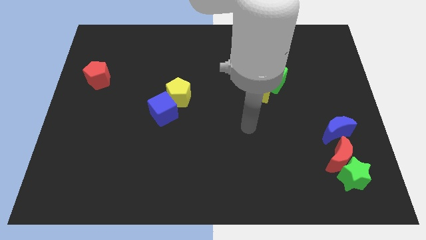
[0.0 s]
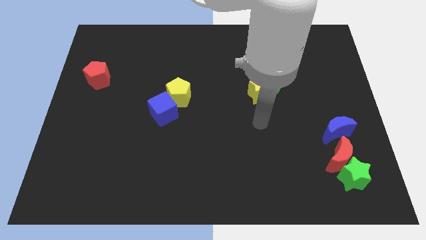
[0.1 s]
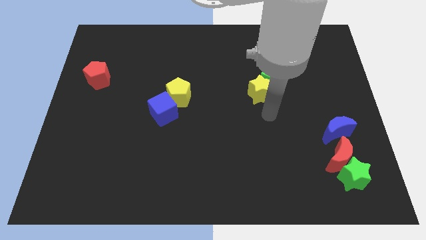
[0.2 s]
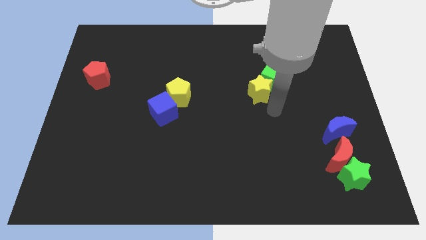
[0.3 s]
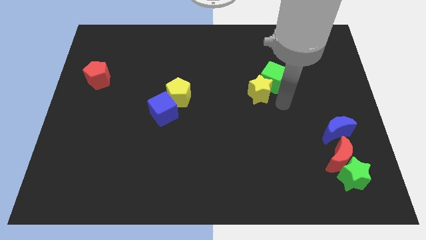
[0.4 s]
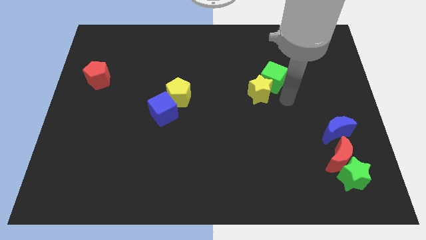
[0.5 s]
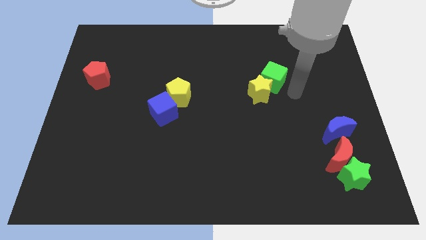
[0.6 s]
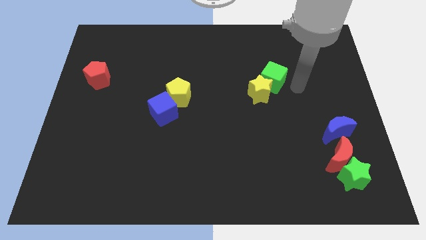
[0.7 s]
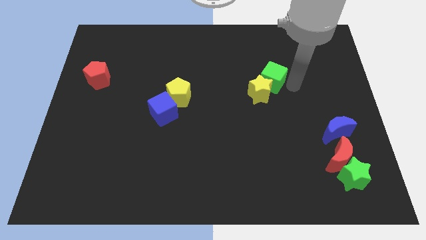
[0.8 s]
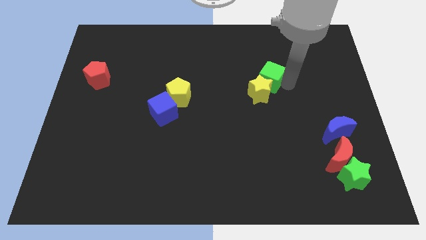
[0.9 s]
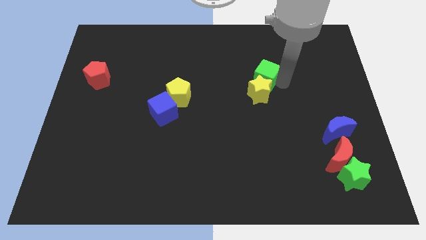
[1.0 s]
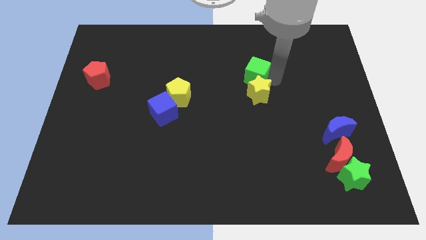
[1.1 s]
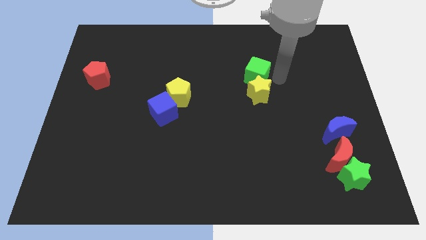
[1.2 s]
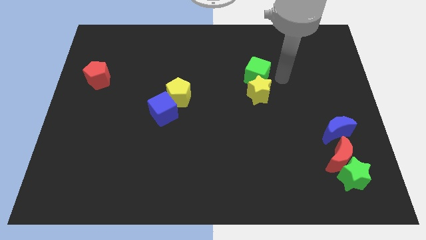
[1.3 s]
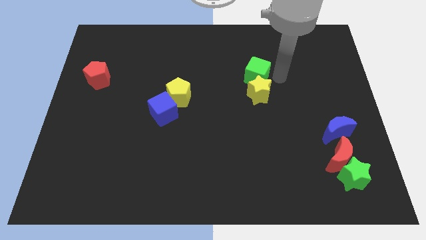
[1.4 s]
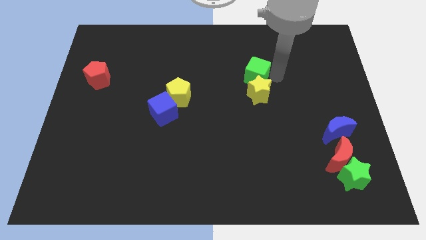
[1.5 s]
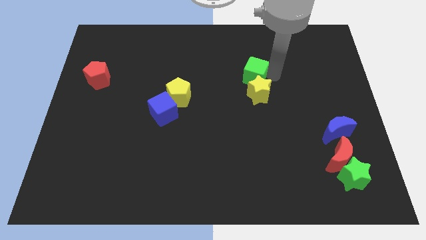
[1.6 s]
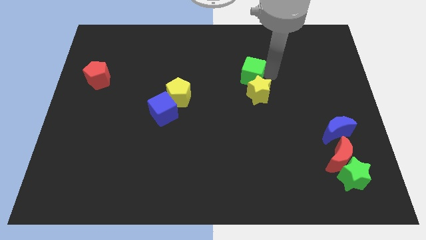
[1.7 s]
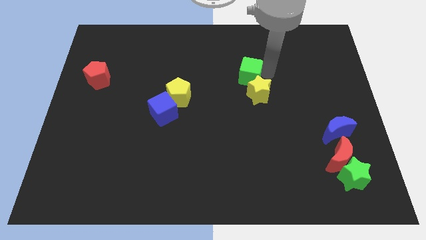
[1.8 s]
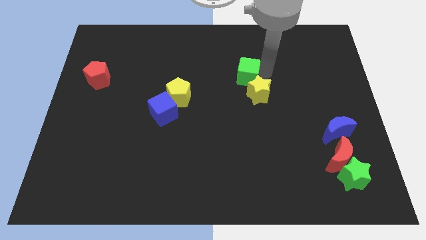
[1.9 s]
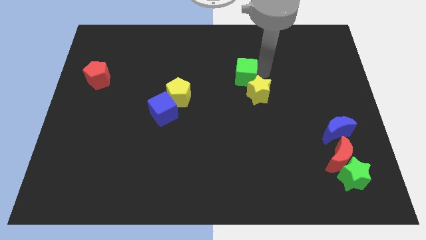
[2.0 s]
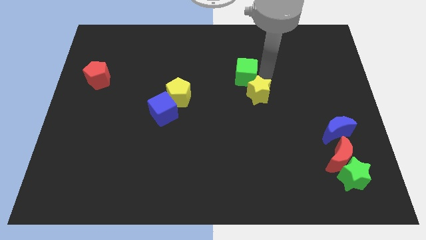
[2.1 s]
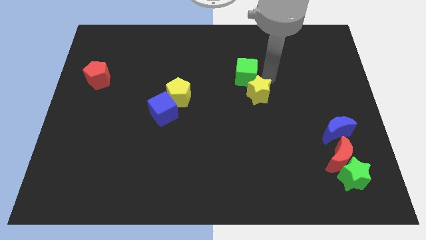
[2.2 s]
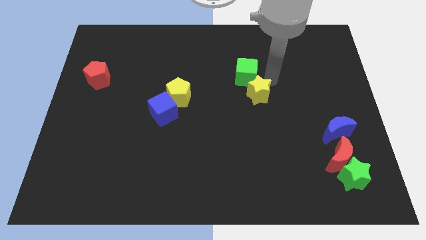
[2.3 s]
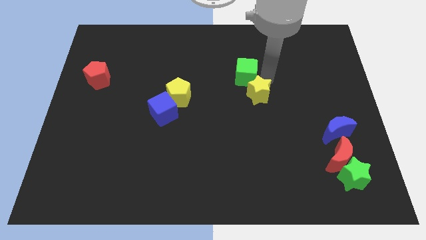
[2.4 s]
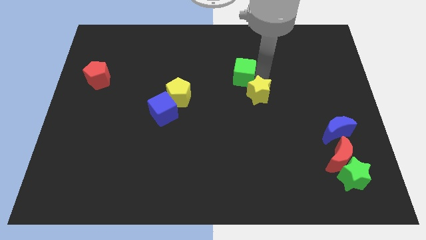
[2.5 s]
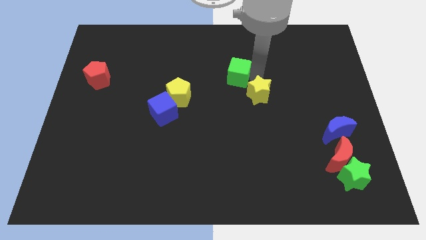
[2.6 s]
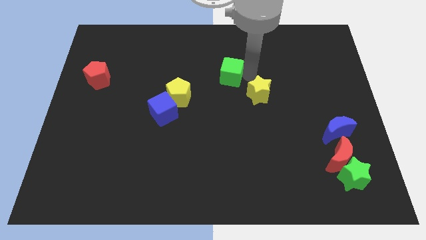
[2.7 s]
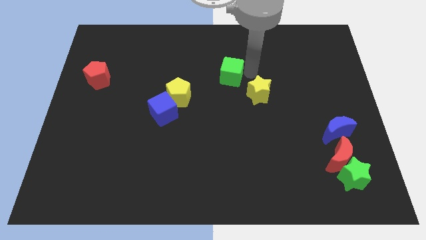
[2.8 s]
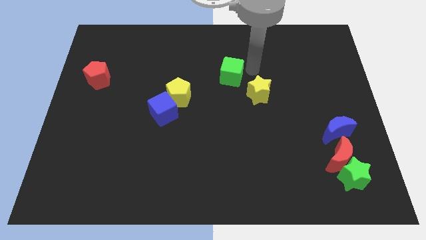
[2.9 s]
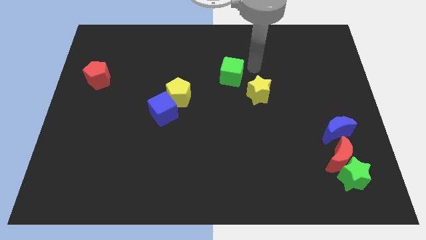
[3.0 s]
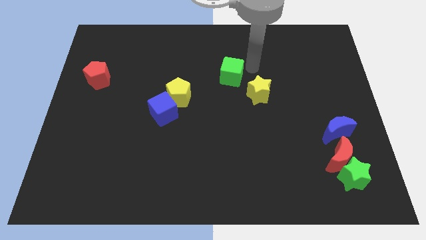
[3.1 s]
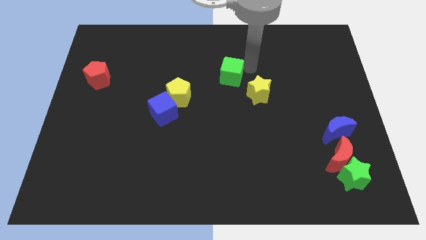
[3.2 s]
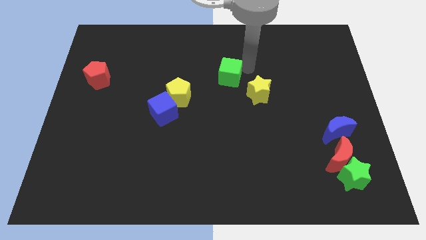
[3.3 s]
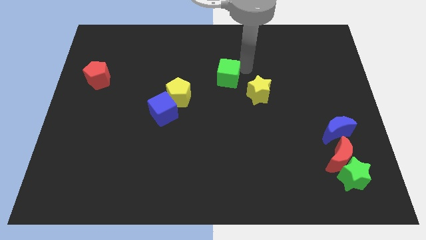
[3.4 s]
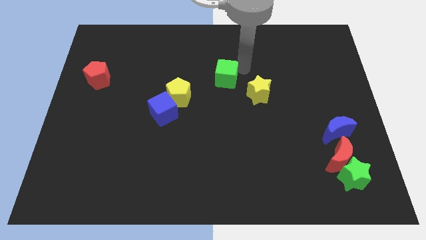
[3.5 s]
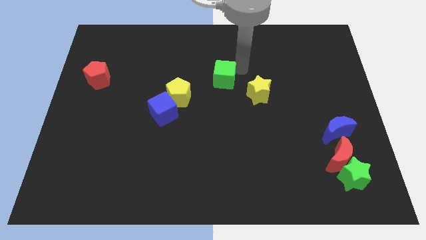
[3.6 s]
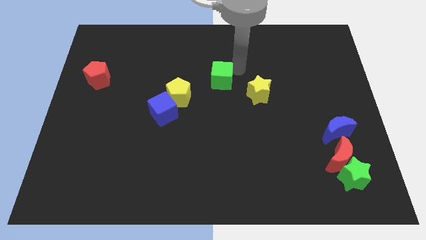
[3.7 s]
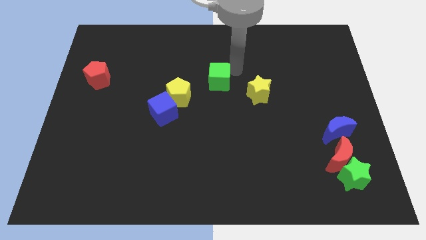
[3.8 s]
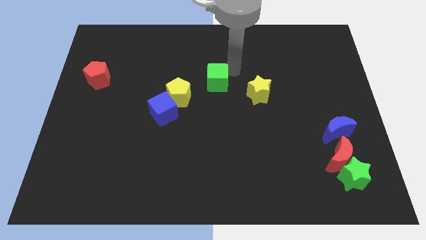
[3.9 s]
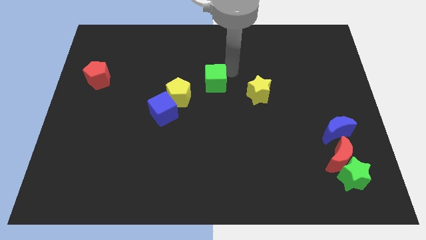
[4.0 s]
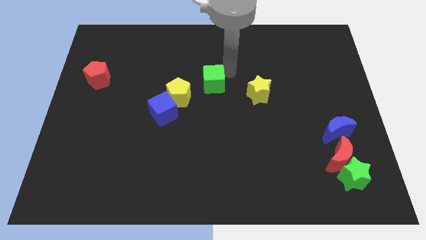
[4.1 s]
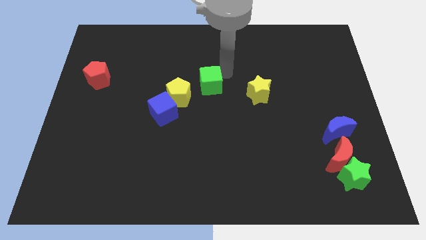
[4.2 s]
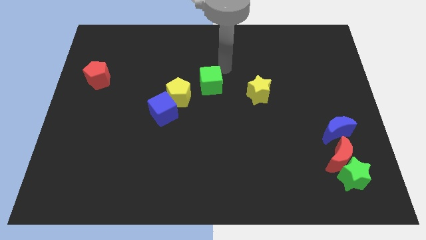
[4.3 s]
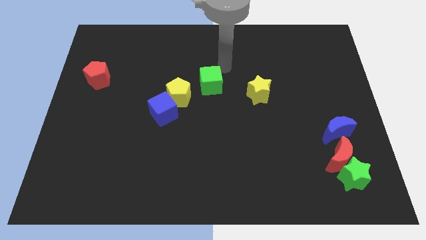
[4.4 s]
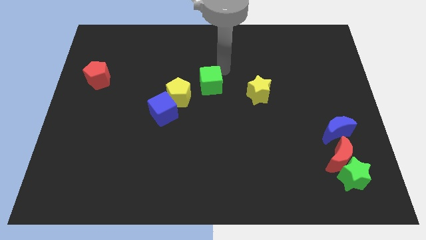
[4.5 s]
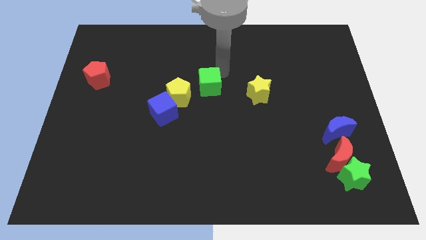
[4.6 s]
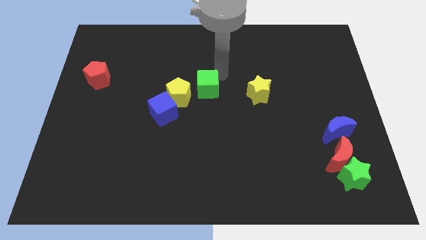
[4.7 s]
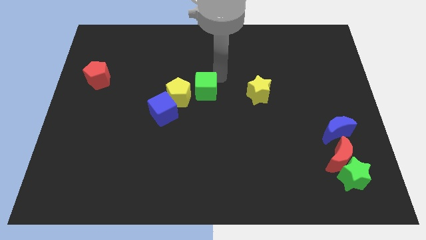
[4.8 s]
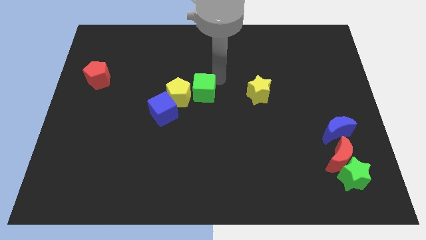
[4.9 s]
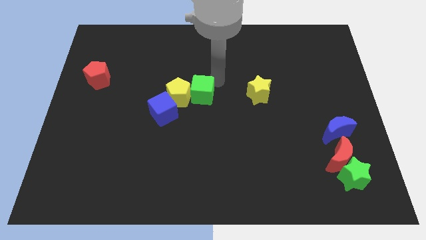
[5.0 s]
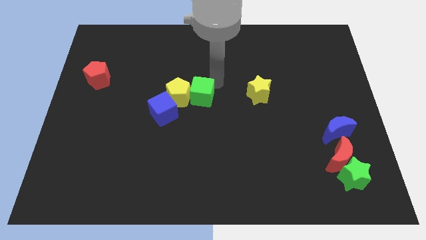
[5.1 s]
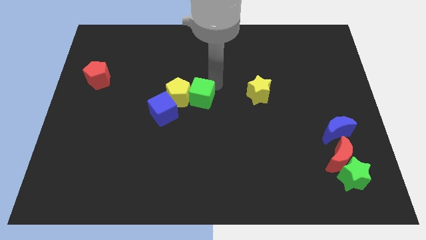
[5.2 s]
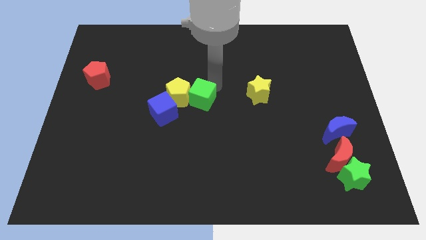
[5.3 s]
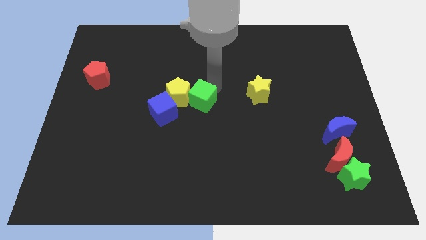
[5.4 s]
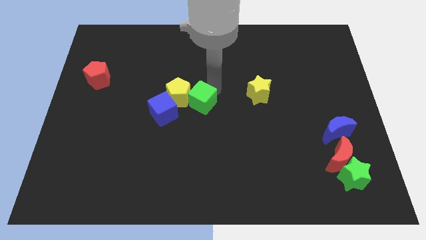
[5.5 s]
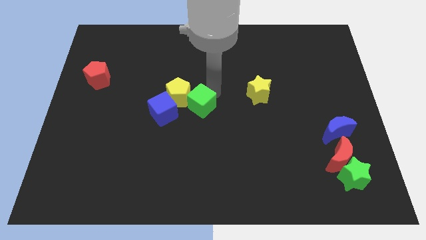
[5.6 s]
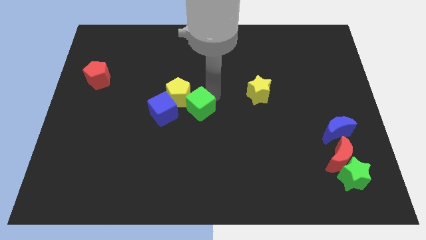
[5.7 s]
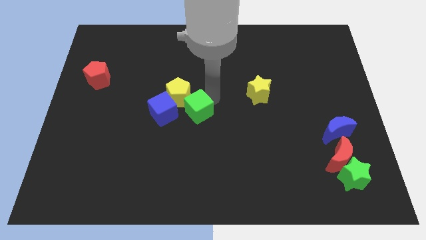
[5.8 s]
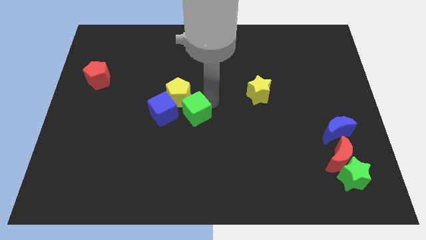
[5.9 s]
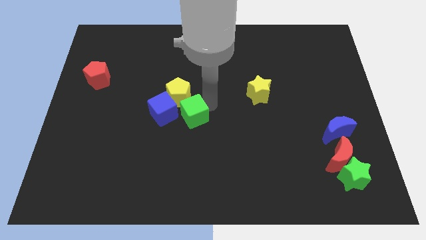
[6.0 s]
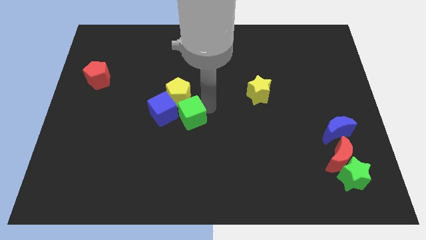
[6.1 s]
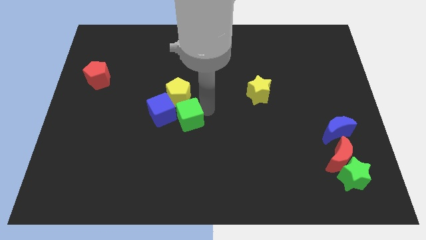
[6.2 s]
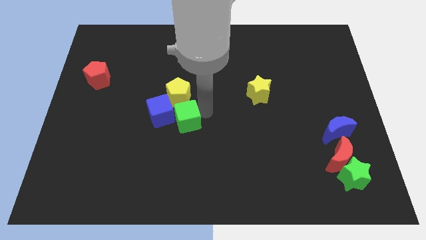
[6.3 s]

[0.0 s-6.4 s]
move the green cube next to the blue cube

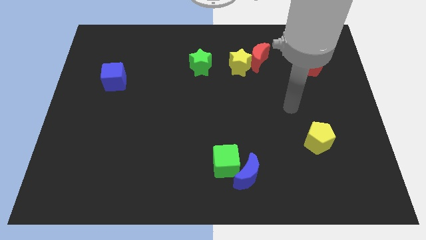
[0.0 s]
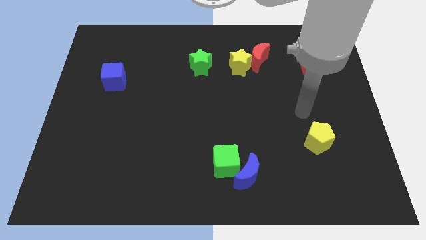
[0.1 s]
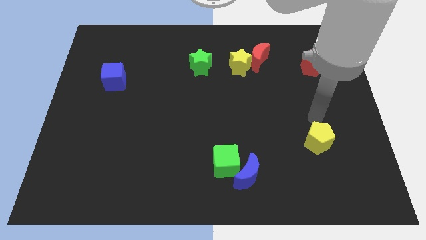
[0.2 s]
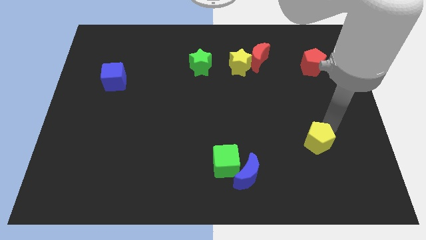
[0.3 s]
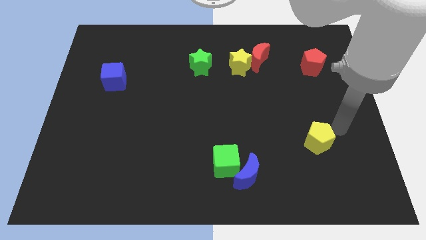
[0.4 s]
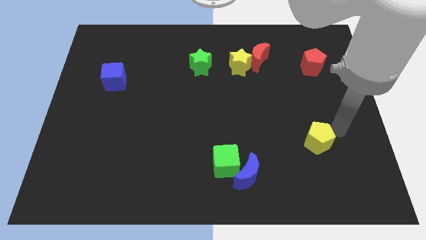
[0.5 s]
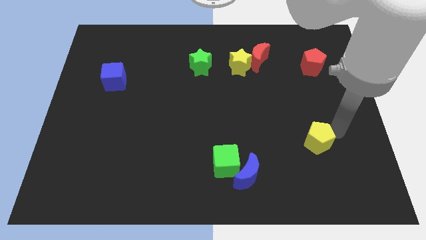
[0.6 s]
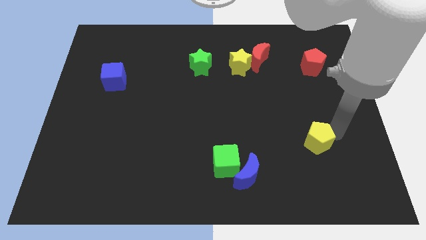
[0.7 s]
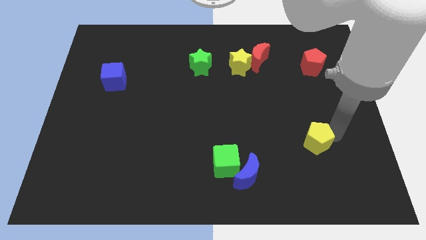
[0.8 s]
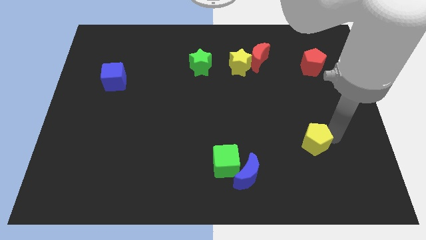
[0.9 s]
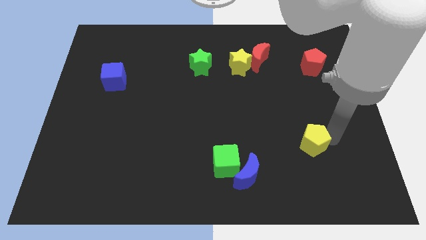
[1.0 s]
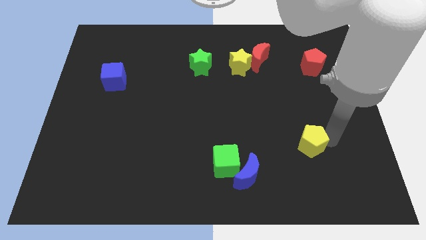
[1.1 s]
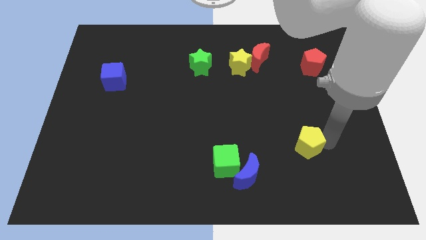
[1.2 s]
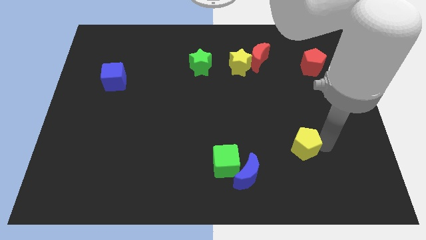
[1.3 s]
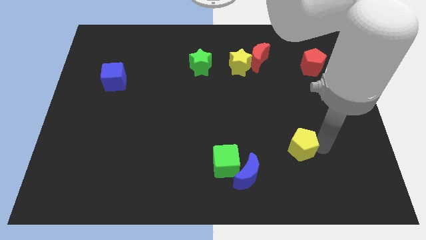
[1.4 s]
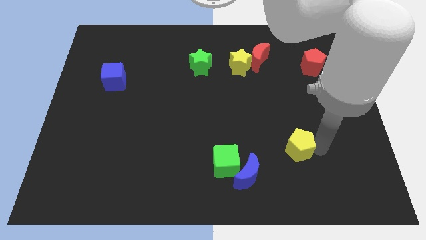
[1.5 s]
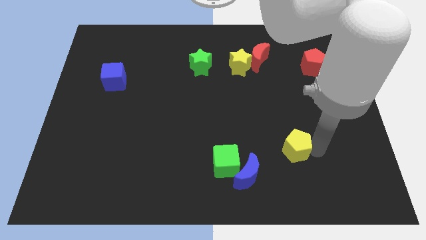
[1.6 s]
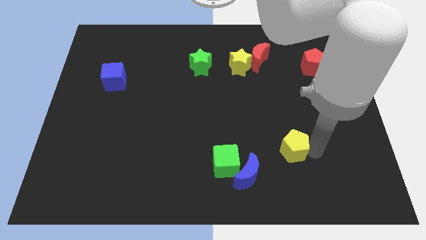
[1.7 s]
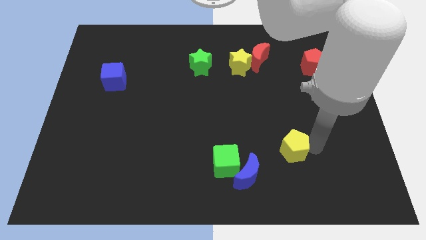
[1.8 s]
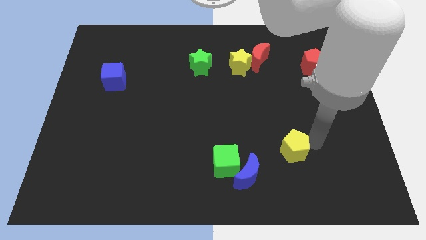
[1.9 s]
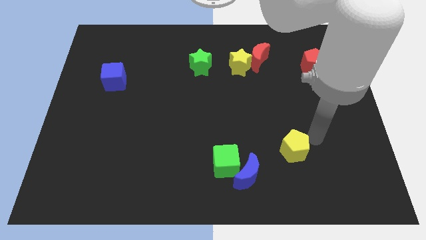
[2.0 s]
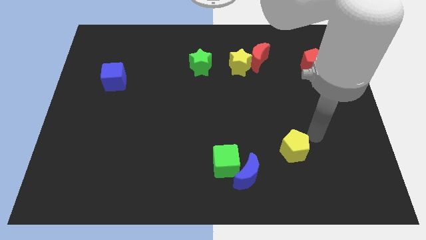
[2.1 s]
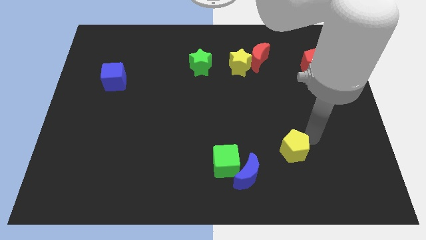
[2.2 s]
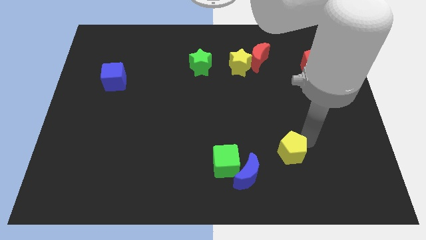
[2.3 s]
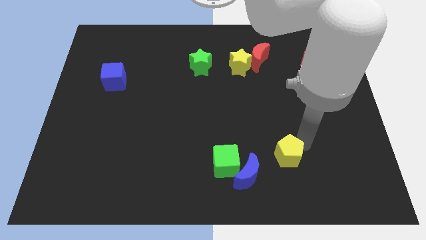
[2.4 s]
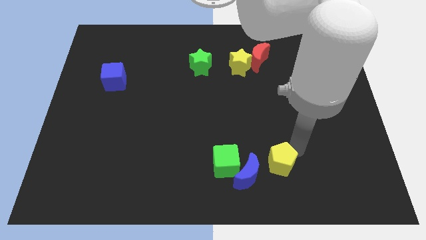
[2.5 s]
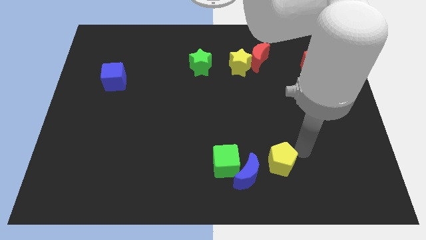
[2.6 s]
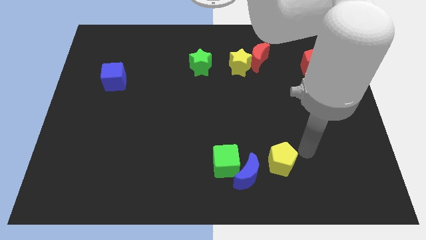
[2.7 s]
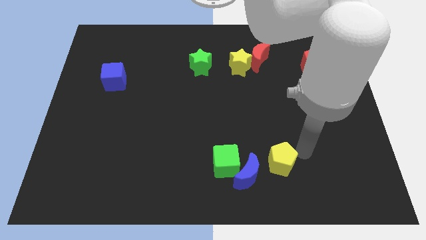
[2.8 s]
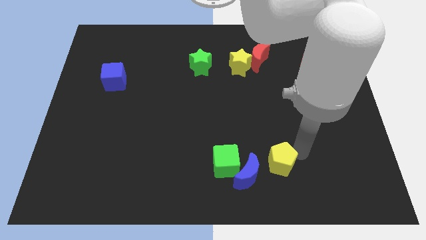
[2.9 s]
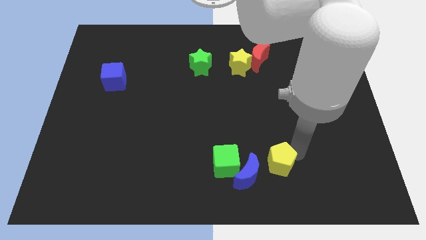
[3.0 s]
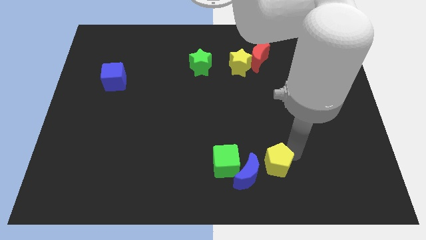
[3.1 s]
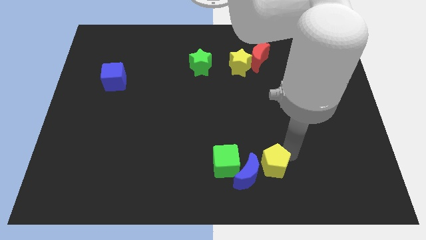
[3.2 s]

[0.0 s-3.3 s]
push the yellow pentagon next to the blue moon
